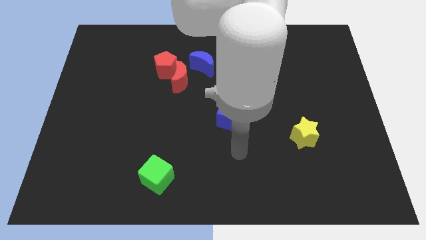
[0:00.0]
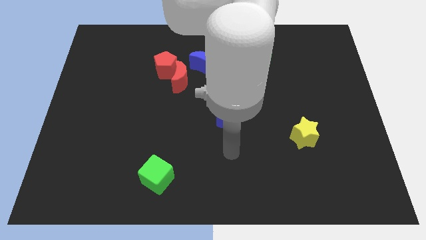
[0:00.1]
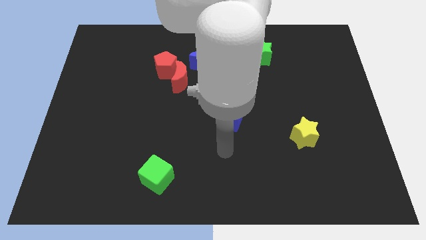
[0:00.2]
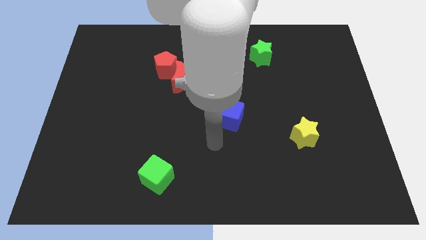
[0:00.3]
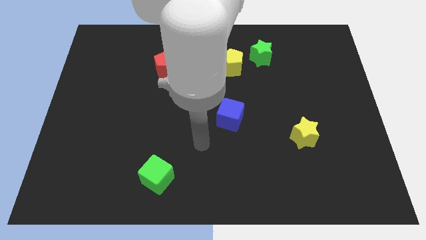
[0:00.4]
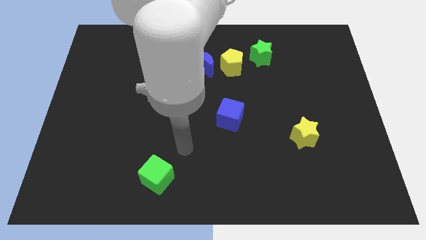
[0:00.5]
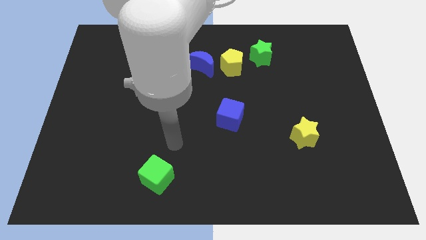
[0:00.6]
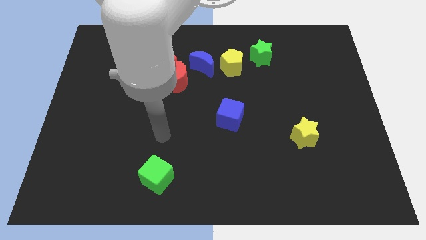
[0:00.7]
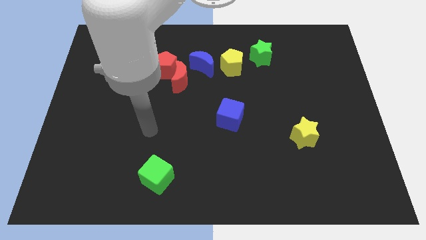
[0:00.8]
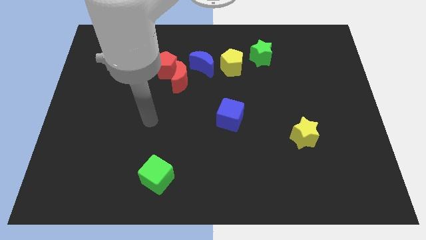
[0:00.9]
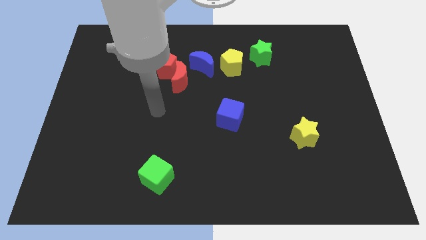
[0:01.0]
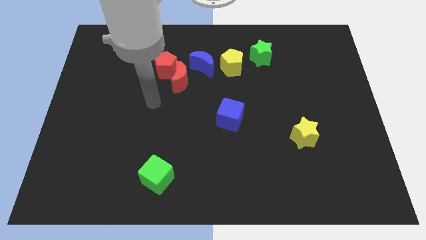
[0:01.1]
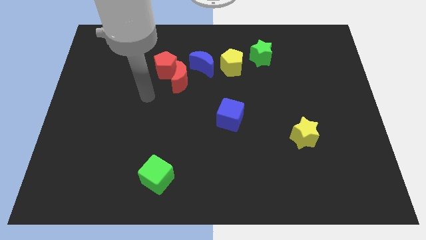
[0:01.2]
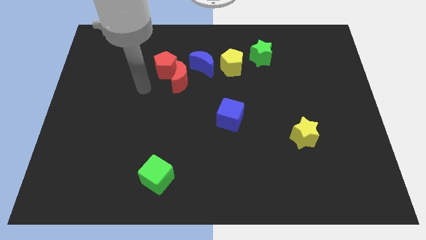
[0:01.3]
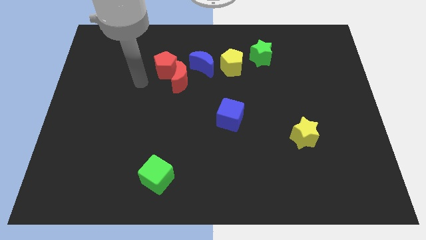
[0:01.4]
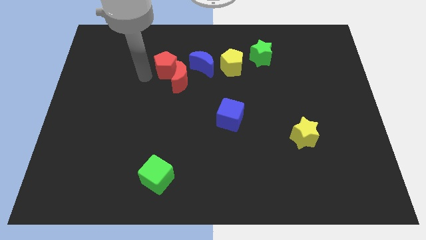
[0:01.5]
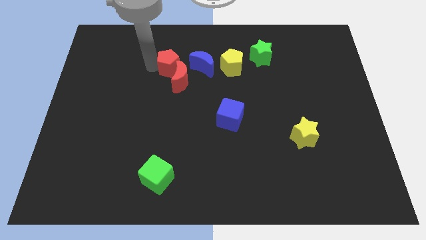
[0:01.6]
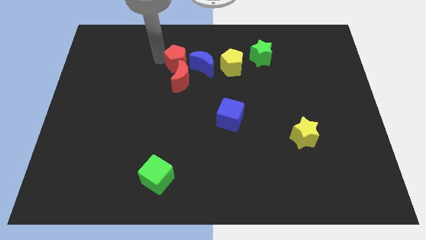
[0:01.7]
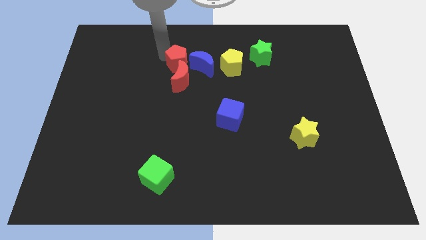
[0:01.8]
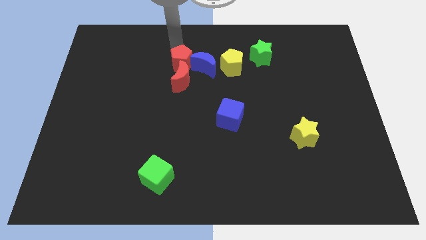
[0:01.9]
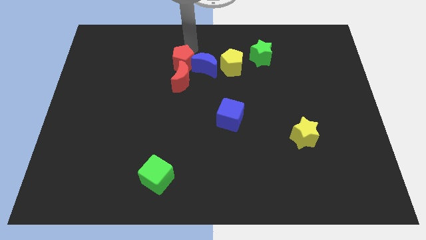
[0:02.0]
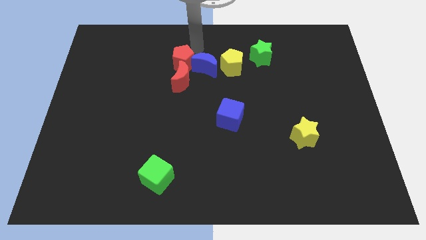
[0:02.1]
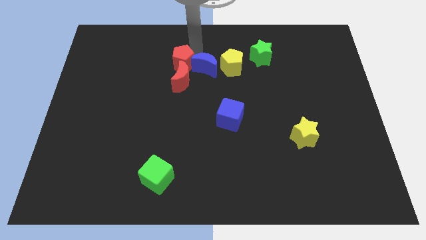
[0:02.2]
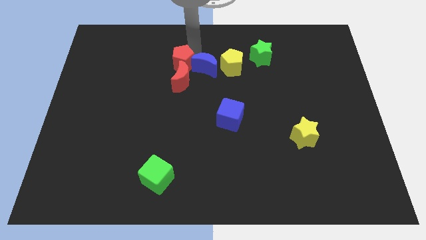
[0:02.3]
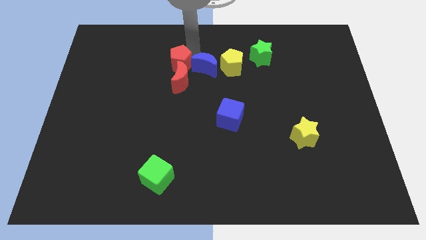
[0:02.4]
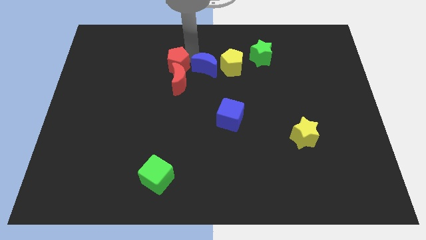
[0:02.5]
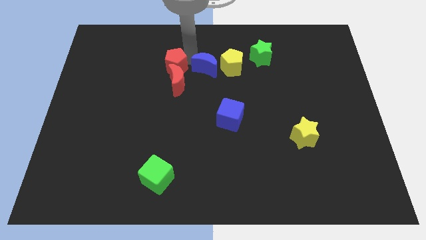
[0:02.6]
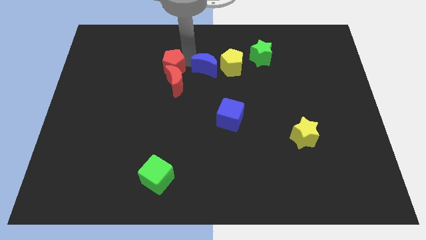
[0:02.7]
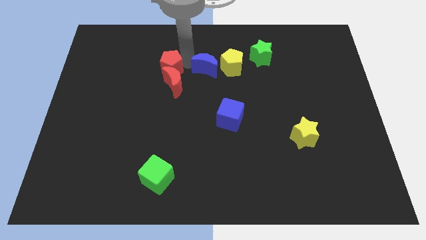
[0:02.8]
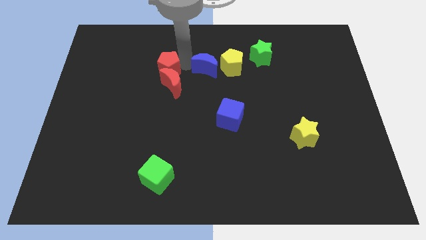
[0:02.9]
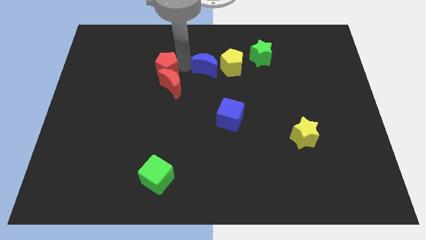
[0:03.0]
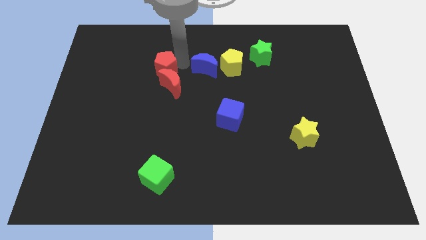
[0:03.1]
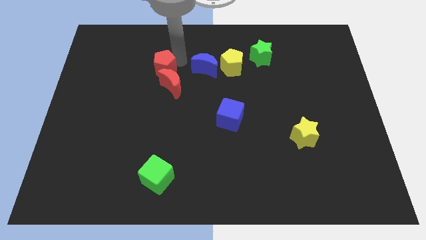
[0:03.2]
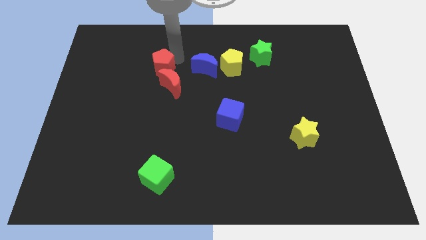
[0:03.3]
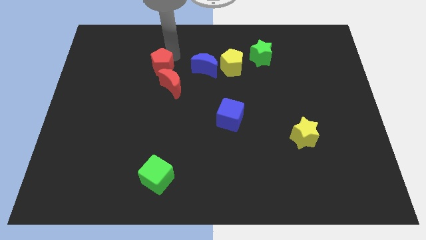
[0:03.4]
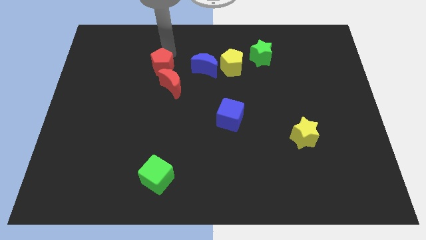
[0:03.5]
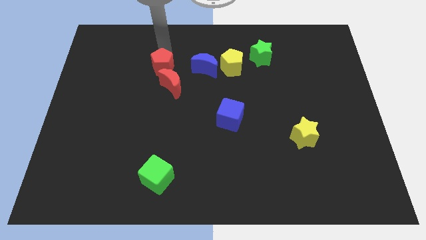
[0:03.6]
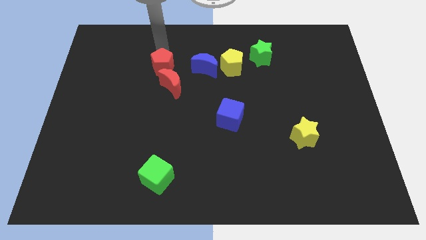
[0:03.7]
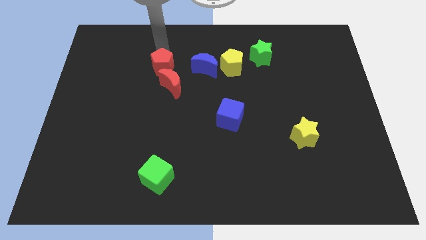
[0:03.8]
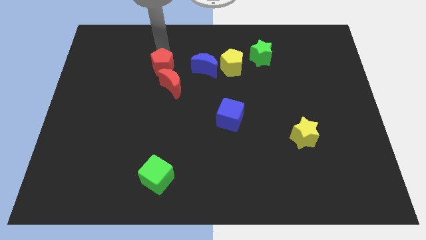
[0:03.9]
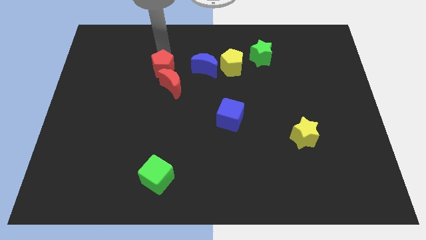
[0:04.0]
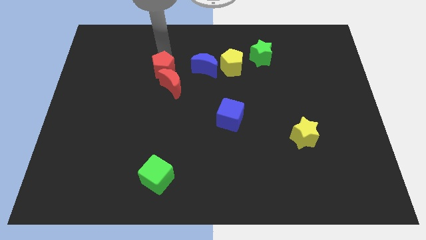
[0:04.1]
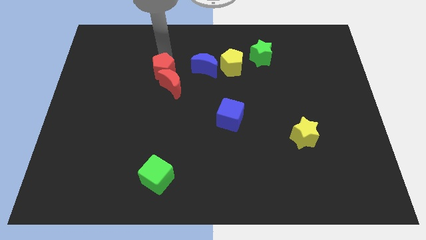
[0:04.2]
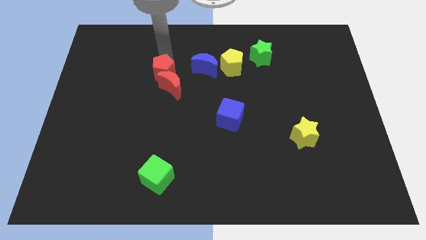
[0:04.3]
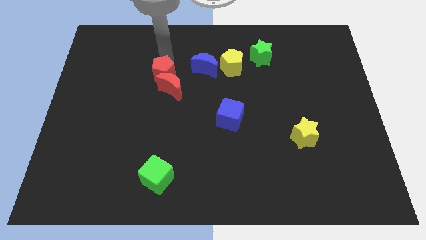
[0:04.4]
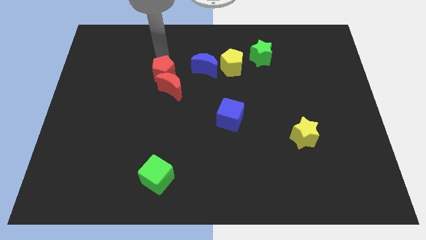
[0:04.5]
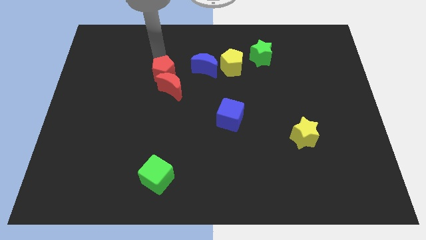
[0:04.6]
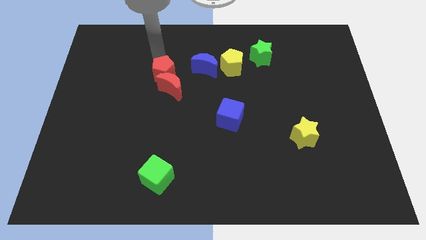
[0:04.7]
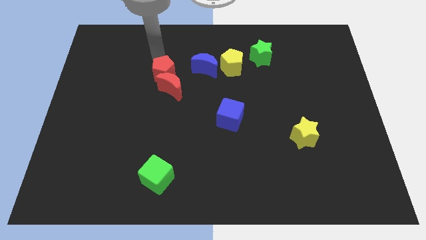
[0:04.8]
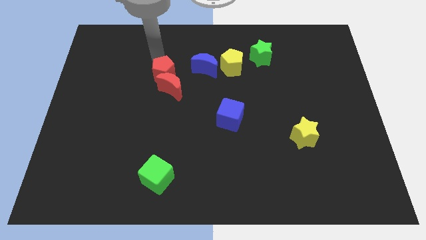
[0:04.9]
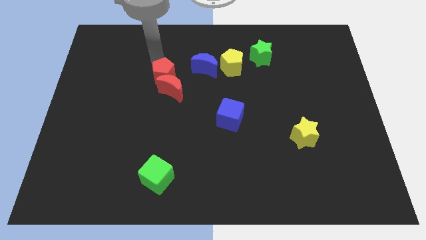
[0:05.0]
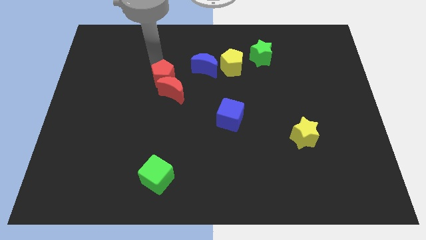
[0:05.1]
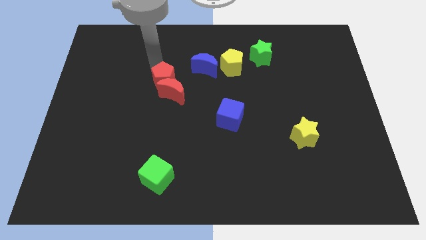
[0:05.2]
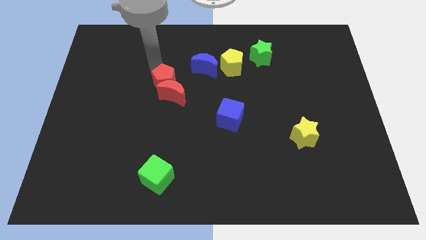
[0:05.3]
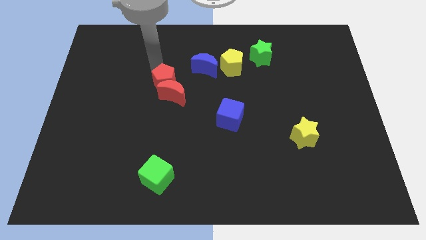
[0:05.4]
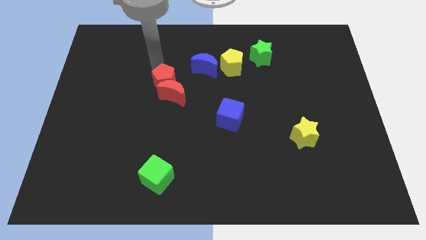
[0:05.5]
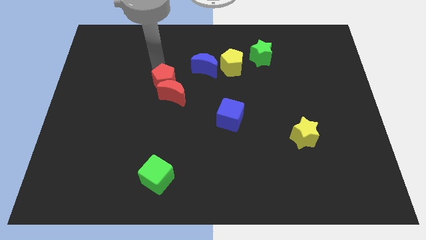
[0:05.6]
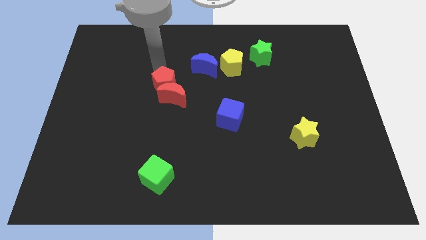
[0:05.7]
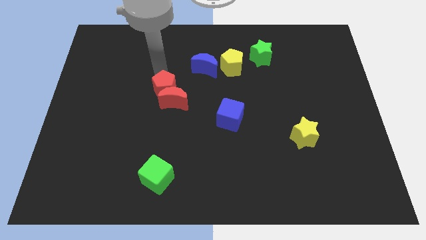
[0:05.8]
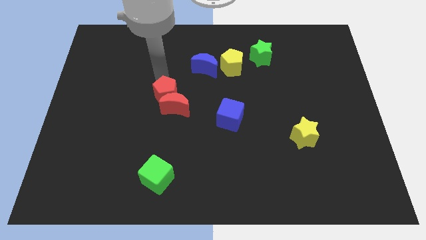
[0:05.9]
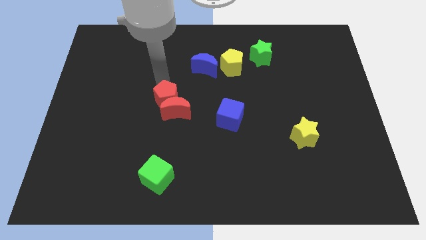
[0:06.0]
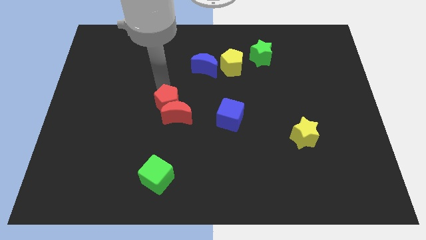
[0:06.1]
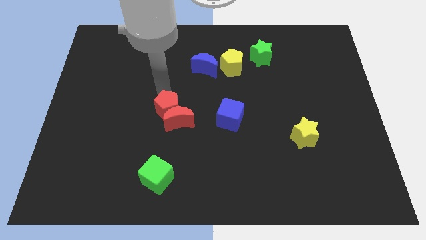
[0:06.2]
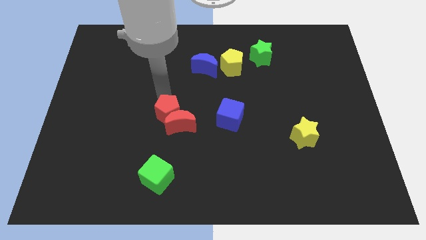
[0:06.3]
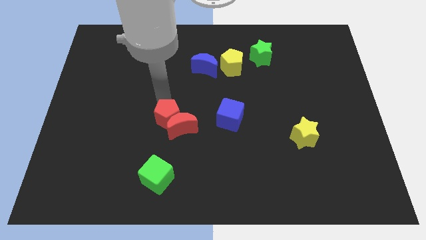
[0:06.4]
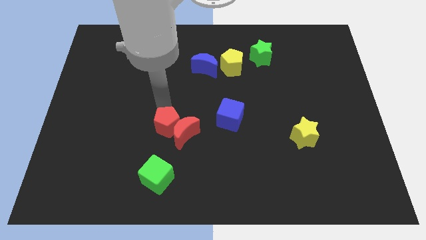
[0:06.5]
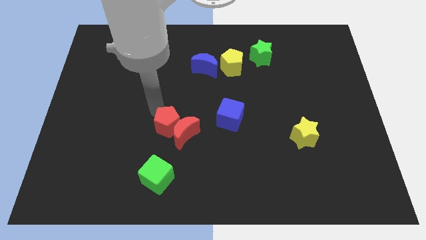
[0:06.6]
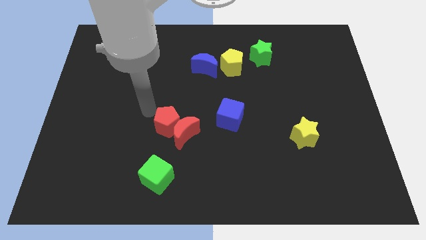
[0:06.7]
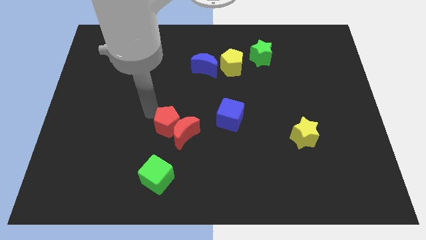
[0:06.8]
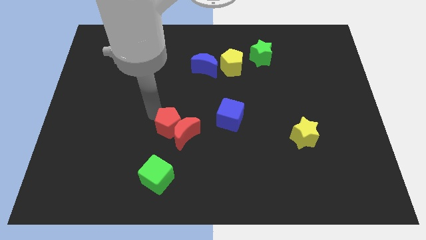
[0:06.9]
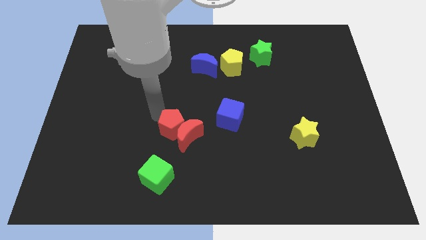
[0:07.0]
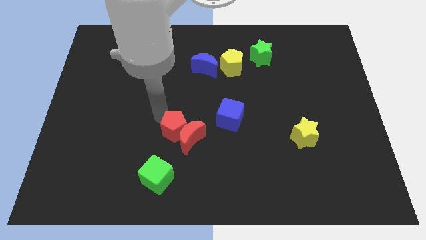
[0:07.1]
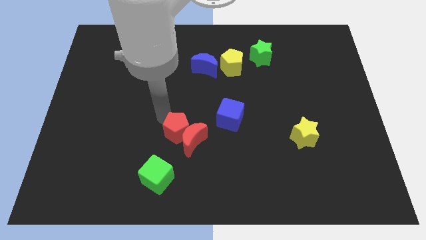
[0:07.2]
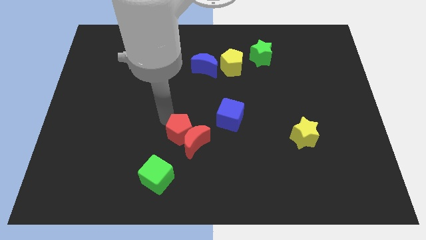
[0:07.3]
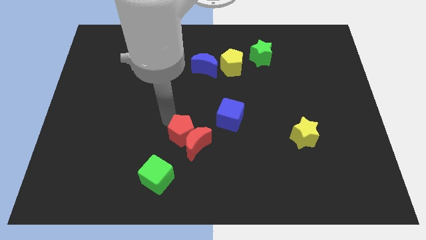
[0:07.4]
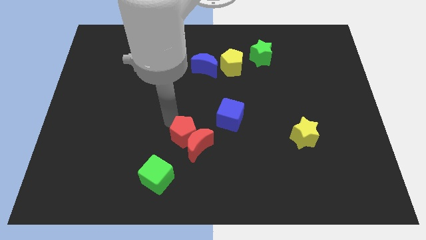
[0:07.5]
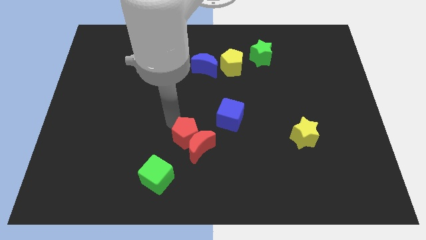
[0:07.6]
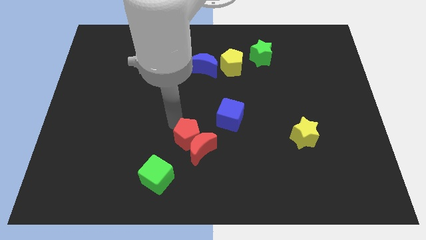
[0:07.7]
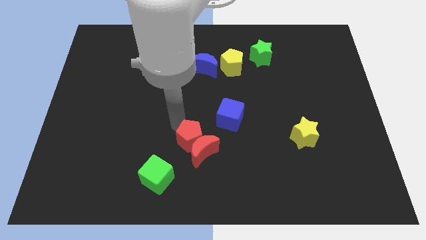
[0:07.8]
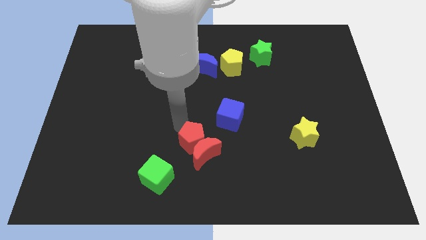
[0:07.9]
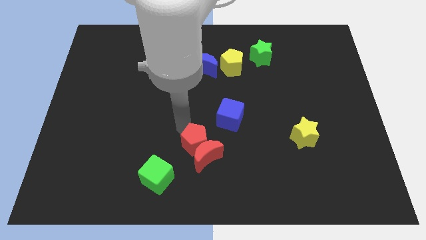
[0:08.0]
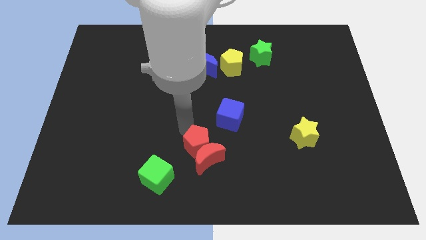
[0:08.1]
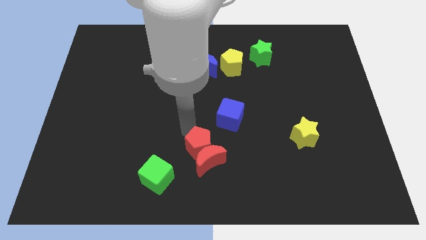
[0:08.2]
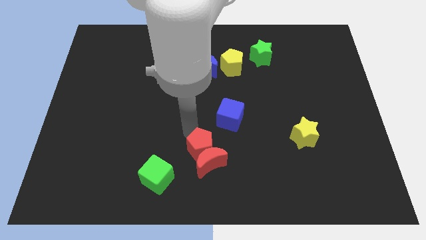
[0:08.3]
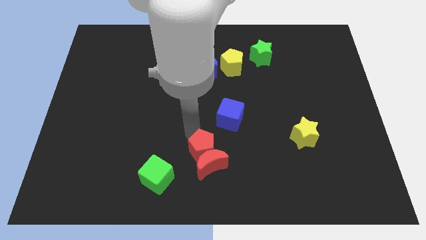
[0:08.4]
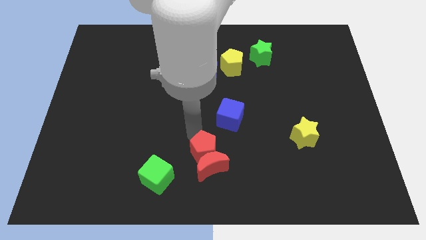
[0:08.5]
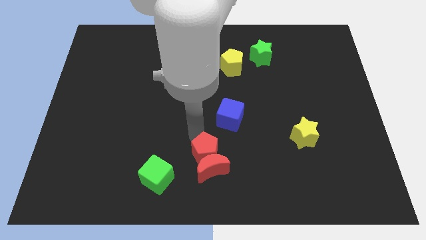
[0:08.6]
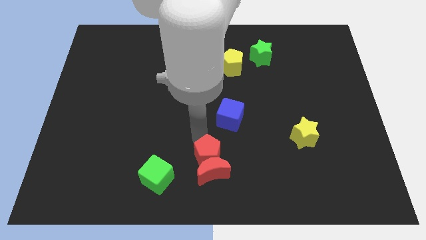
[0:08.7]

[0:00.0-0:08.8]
put the red pentagon to the bottom side
